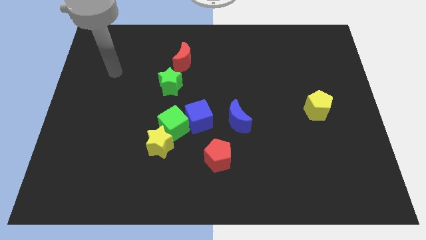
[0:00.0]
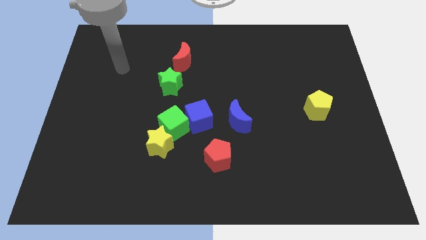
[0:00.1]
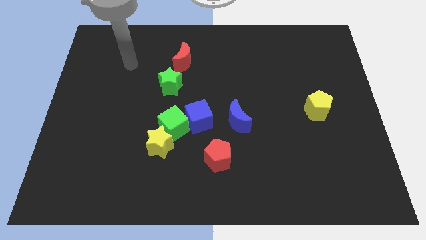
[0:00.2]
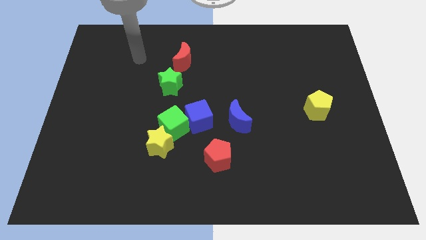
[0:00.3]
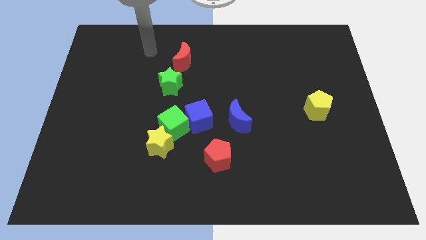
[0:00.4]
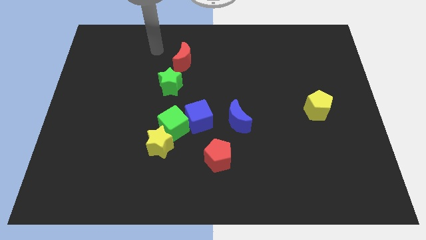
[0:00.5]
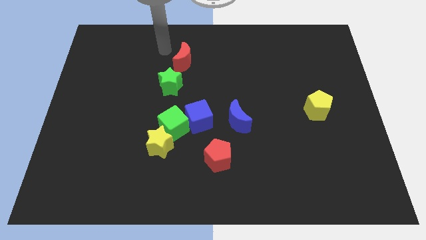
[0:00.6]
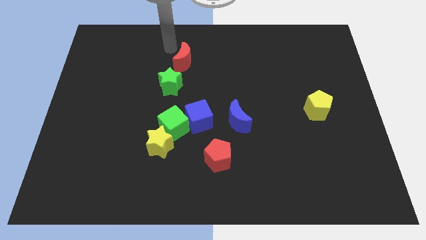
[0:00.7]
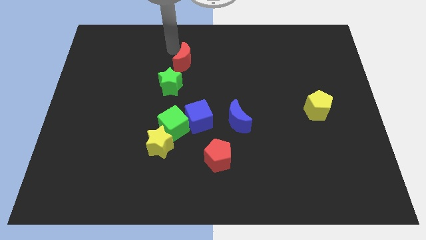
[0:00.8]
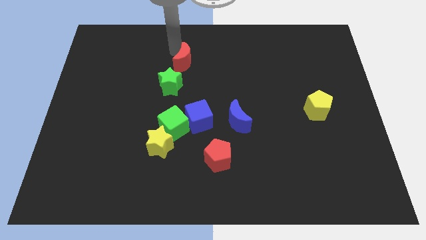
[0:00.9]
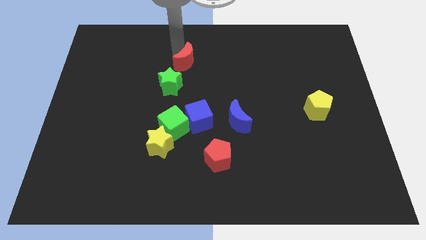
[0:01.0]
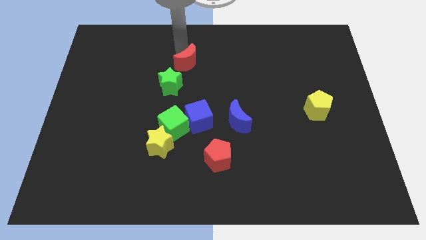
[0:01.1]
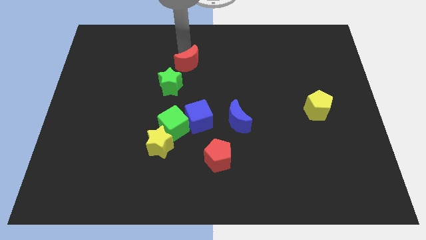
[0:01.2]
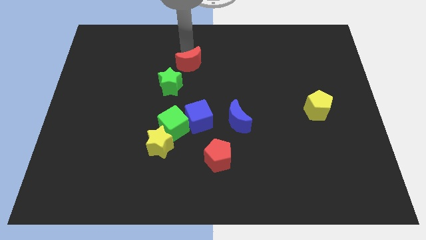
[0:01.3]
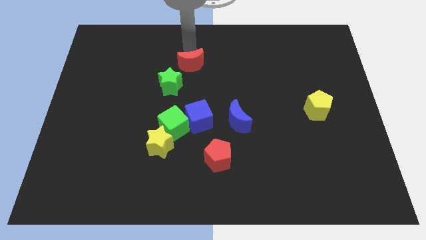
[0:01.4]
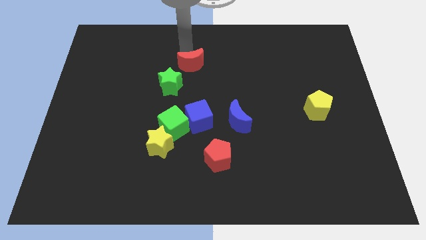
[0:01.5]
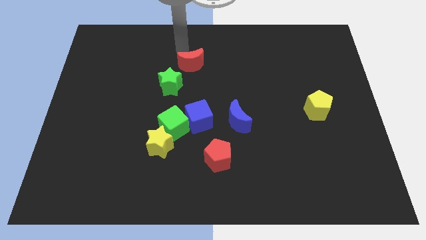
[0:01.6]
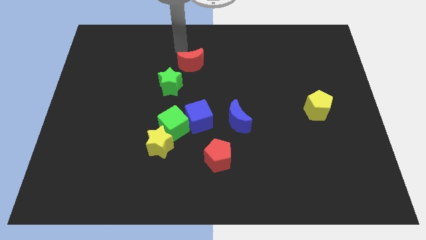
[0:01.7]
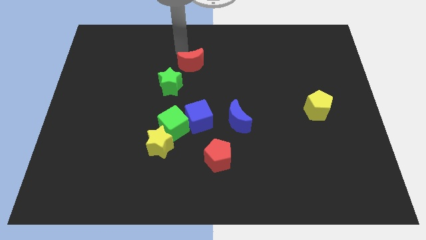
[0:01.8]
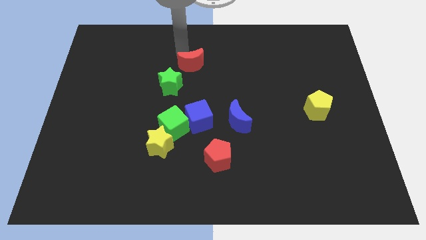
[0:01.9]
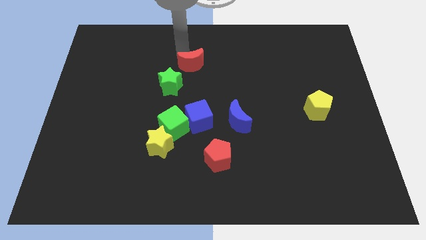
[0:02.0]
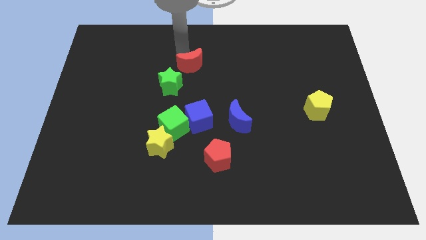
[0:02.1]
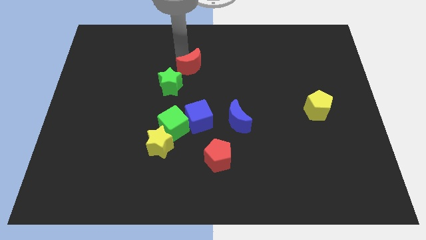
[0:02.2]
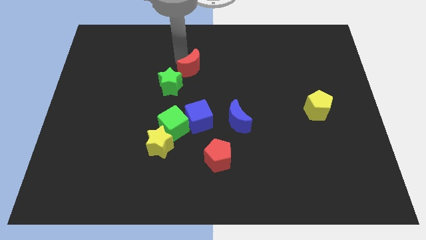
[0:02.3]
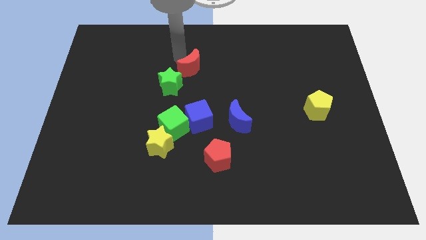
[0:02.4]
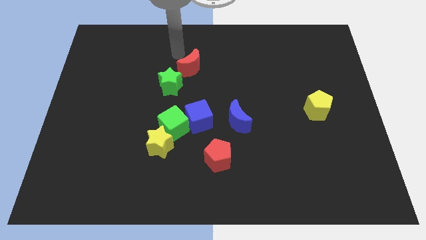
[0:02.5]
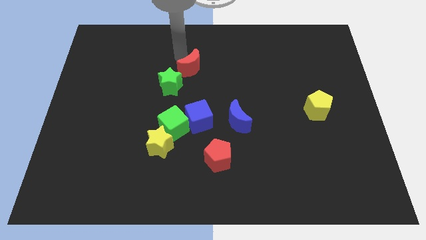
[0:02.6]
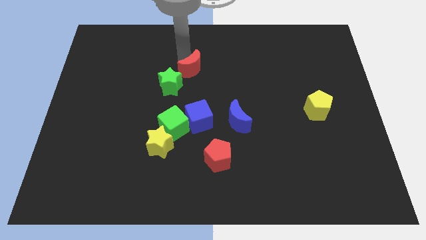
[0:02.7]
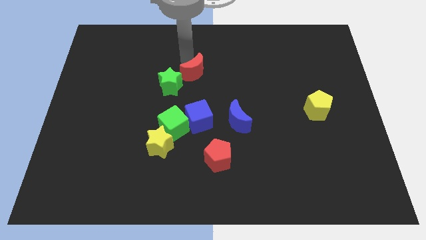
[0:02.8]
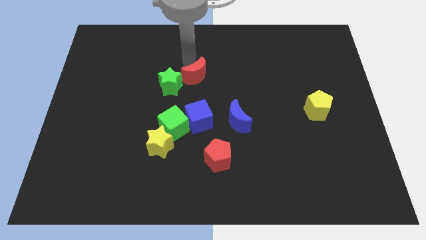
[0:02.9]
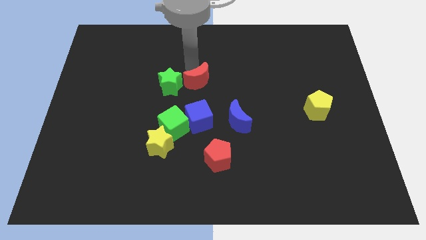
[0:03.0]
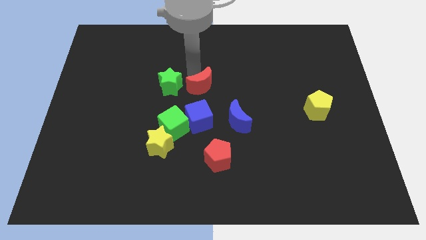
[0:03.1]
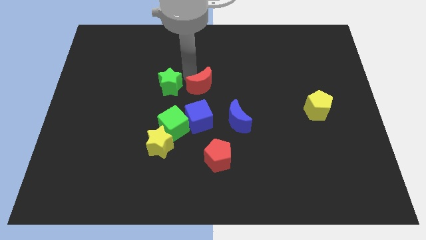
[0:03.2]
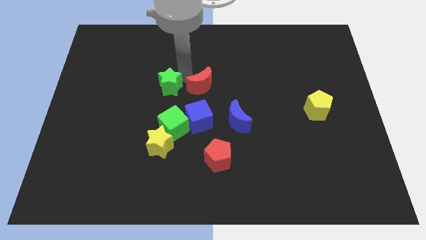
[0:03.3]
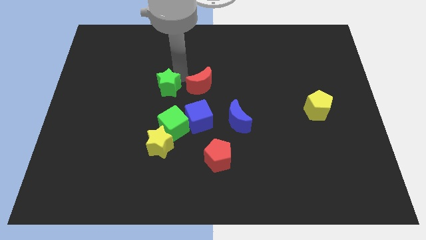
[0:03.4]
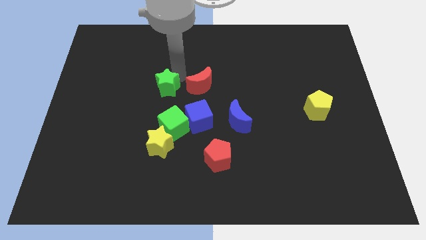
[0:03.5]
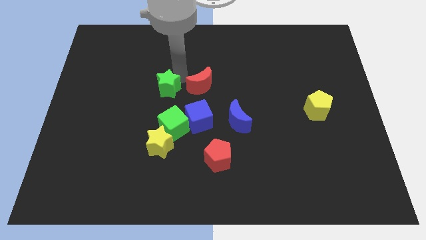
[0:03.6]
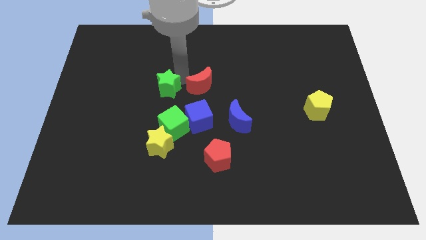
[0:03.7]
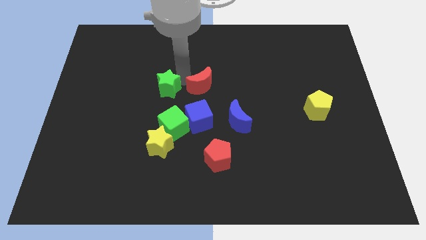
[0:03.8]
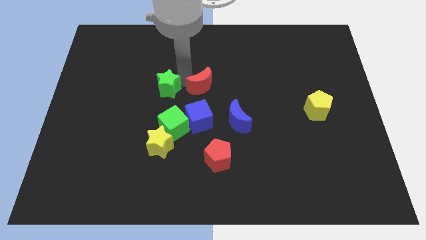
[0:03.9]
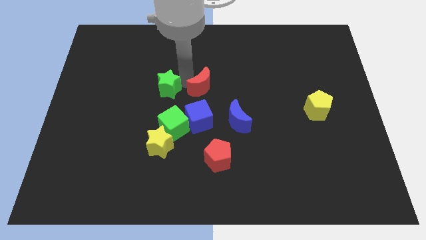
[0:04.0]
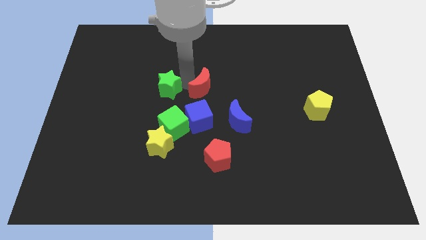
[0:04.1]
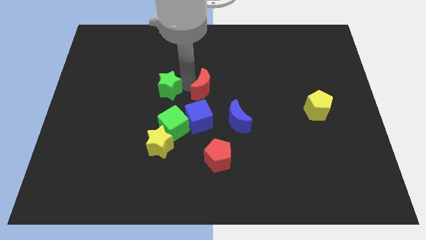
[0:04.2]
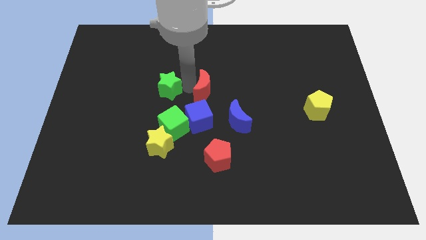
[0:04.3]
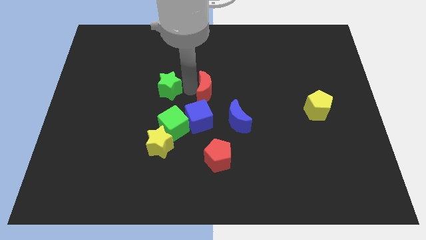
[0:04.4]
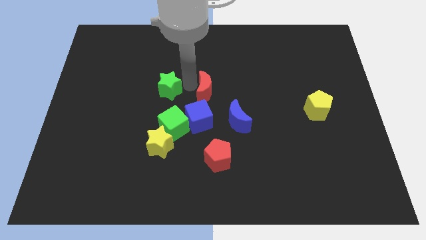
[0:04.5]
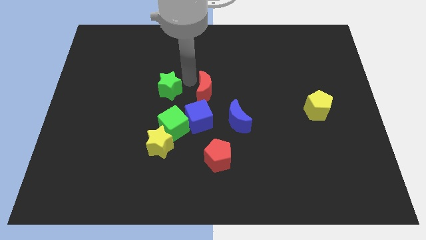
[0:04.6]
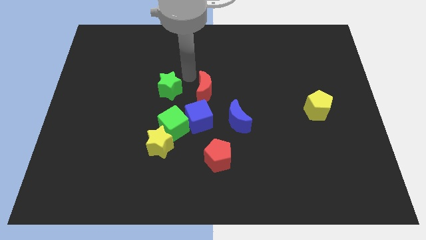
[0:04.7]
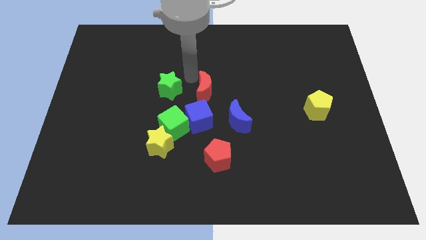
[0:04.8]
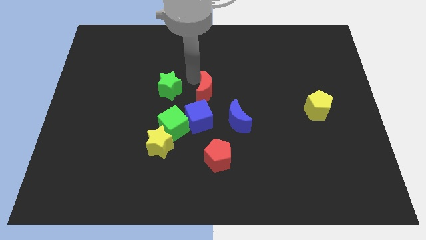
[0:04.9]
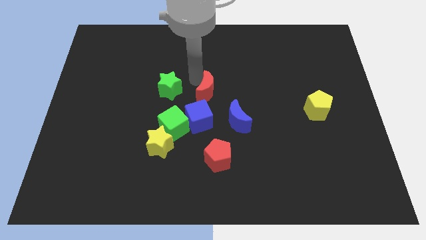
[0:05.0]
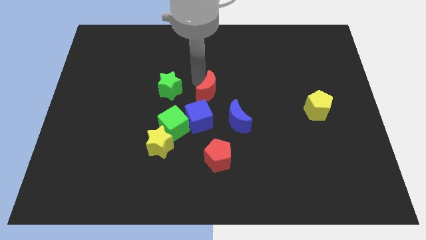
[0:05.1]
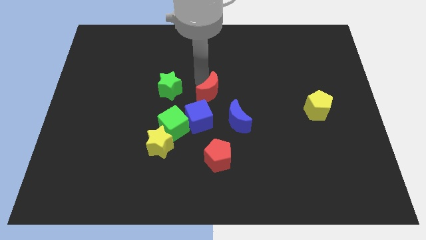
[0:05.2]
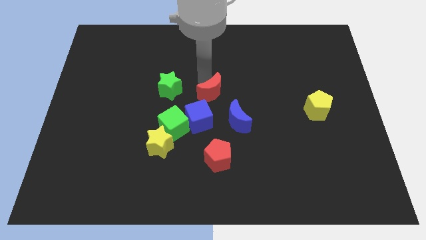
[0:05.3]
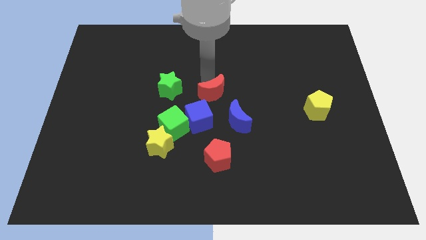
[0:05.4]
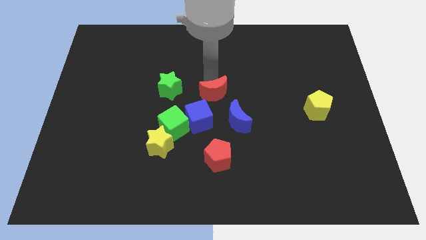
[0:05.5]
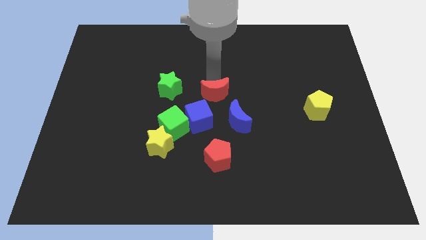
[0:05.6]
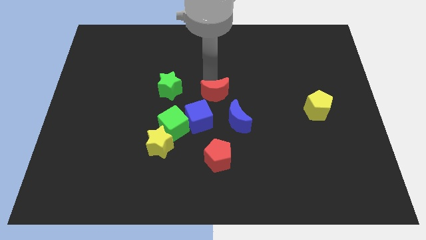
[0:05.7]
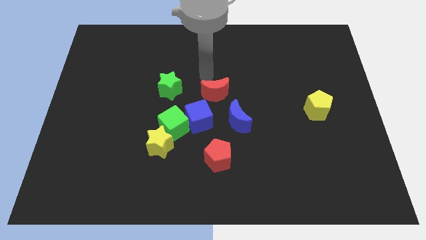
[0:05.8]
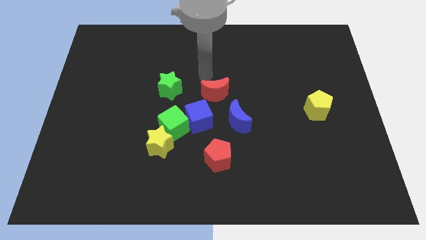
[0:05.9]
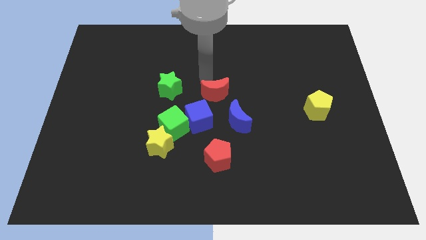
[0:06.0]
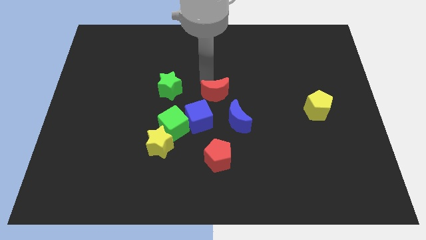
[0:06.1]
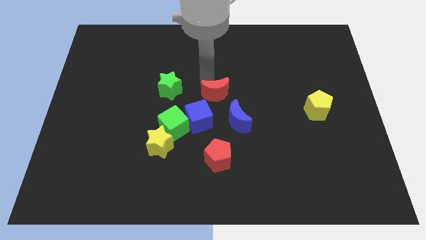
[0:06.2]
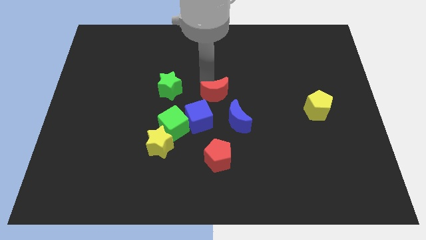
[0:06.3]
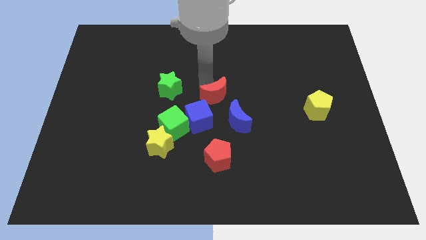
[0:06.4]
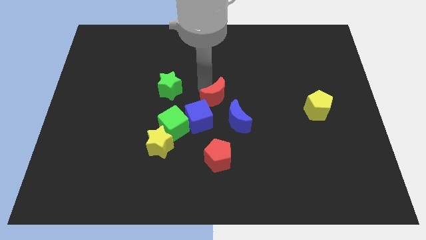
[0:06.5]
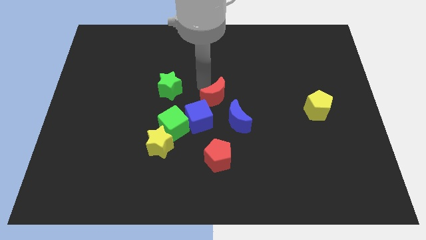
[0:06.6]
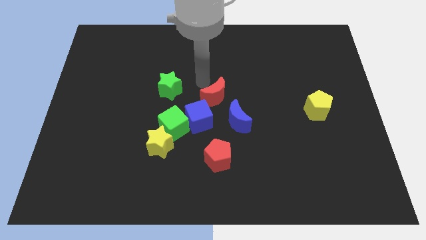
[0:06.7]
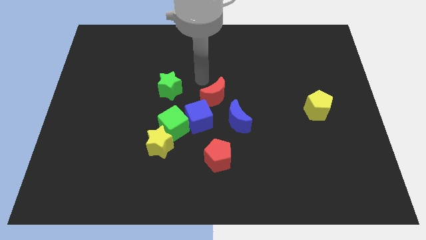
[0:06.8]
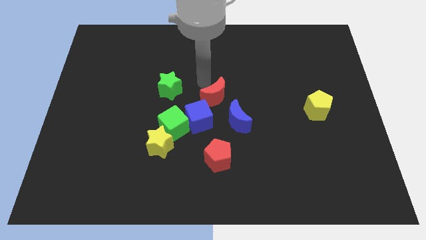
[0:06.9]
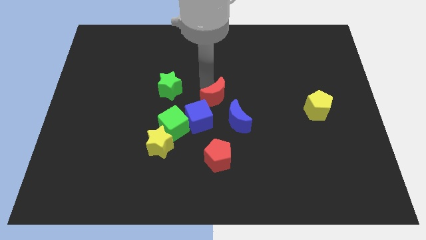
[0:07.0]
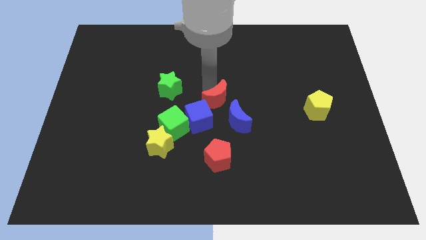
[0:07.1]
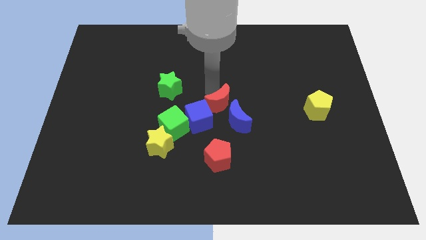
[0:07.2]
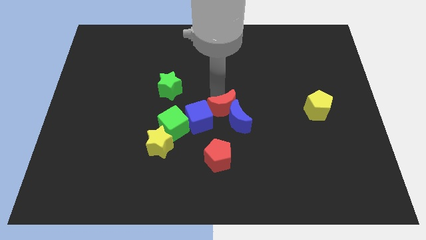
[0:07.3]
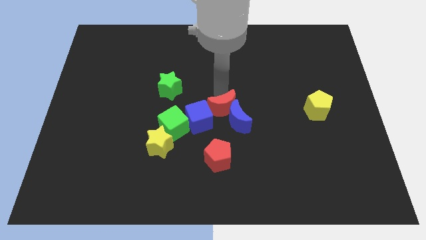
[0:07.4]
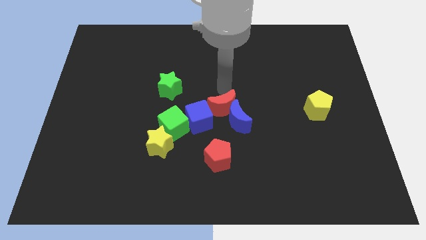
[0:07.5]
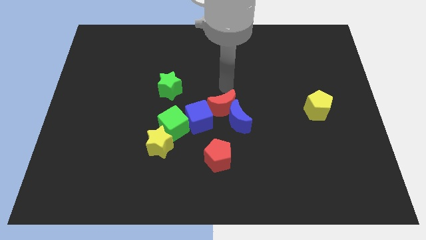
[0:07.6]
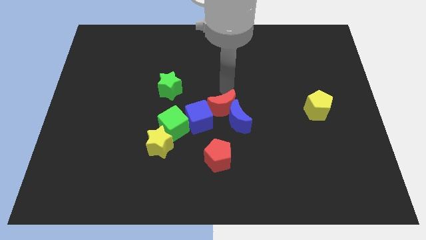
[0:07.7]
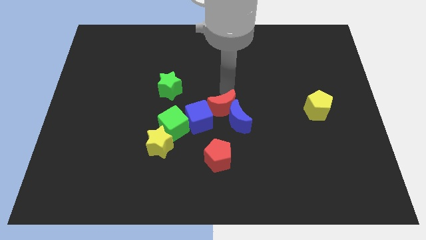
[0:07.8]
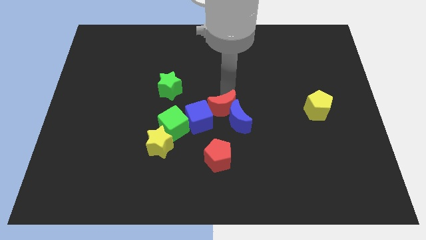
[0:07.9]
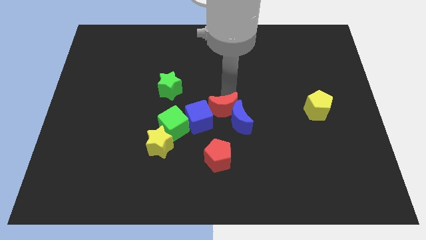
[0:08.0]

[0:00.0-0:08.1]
push the red moon to the right of the green cube
